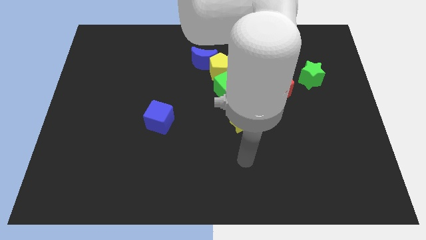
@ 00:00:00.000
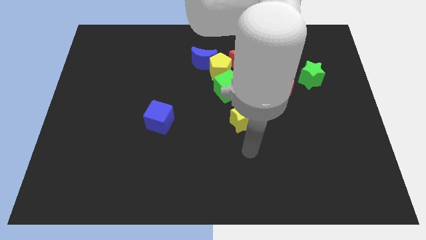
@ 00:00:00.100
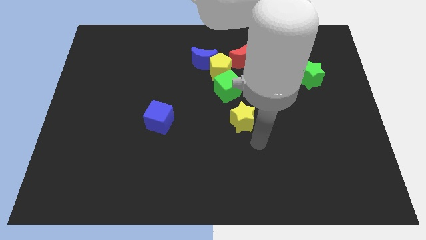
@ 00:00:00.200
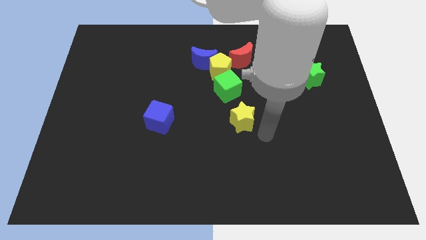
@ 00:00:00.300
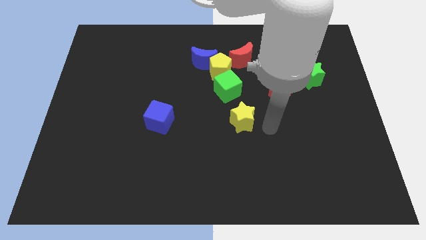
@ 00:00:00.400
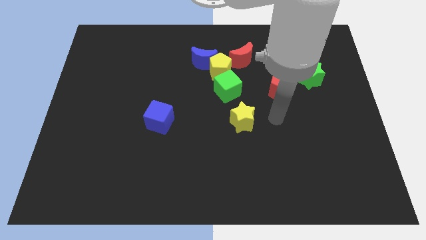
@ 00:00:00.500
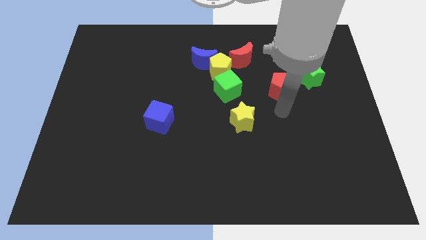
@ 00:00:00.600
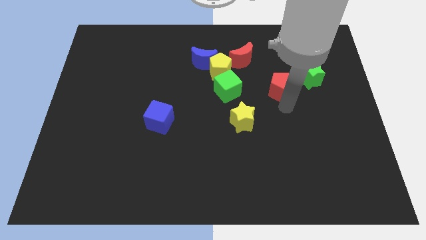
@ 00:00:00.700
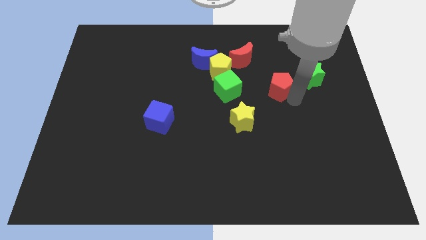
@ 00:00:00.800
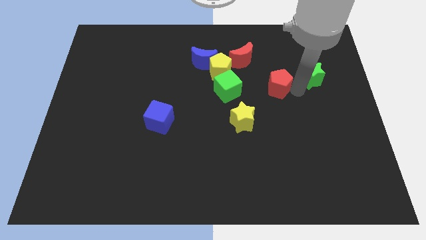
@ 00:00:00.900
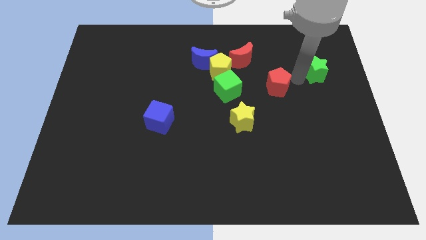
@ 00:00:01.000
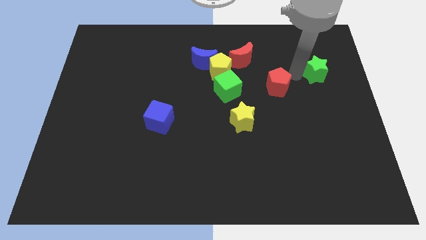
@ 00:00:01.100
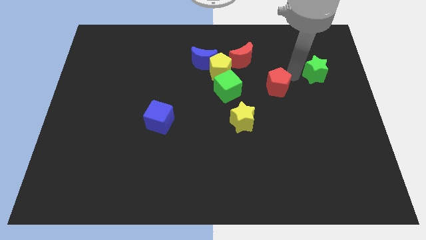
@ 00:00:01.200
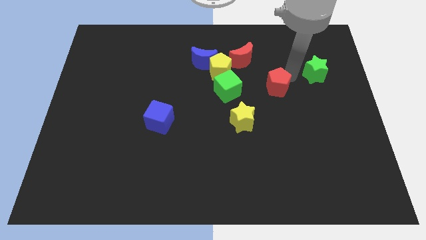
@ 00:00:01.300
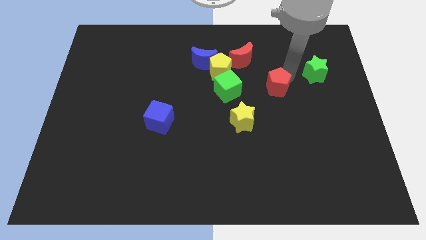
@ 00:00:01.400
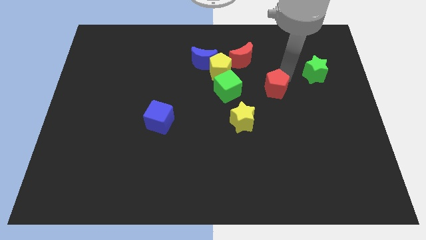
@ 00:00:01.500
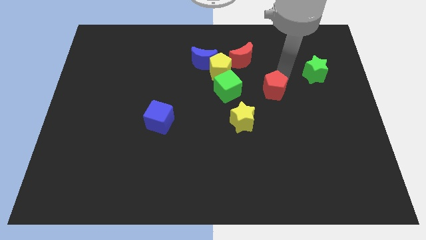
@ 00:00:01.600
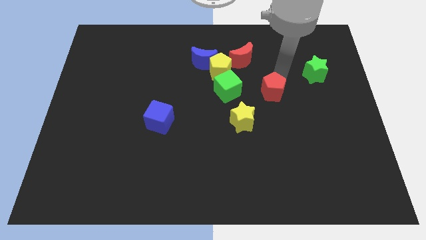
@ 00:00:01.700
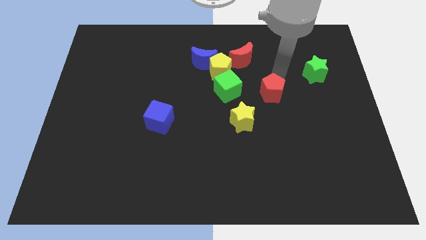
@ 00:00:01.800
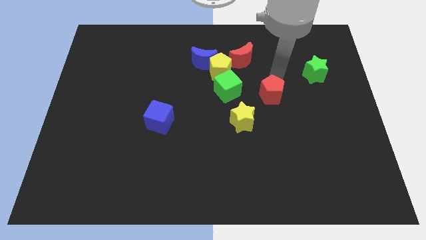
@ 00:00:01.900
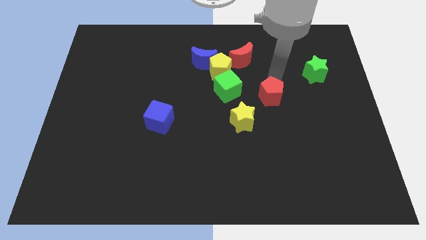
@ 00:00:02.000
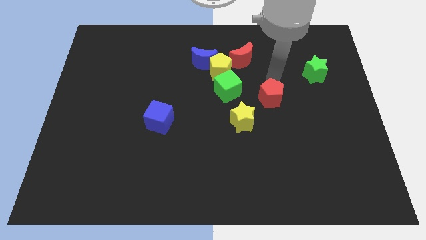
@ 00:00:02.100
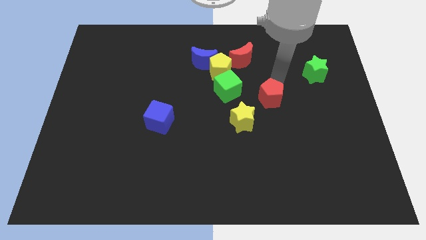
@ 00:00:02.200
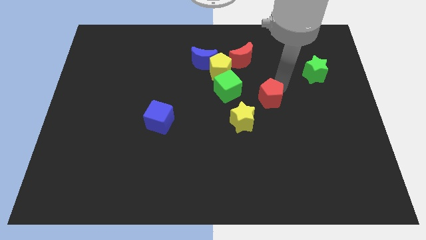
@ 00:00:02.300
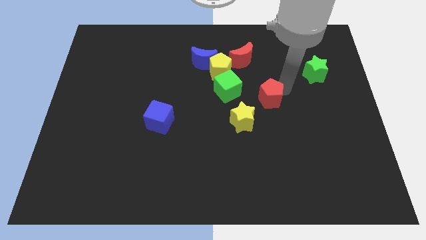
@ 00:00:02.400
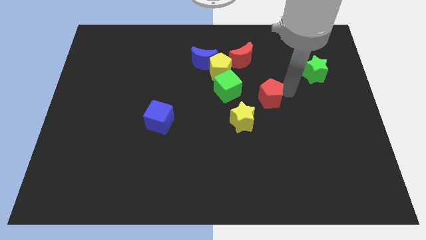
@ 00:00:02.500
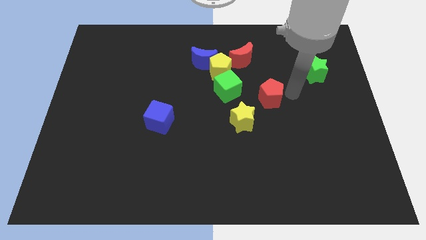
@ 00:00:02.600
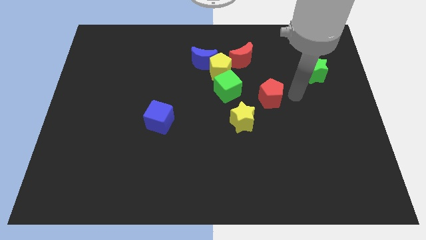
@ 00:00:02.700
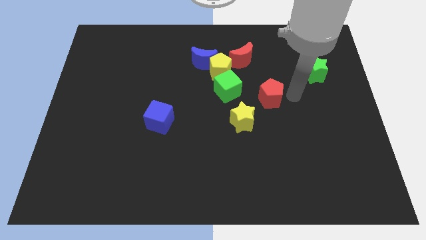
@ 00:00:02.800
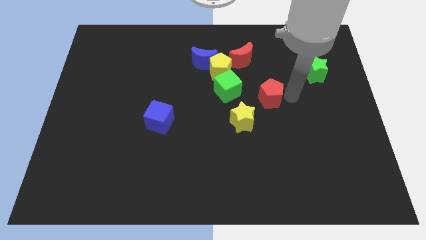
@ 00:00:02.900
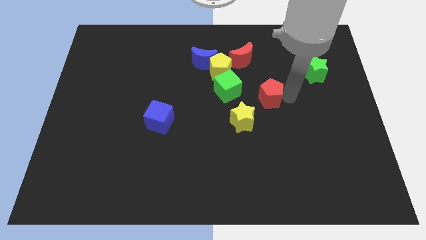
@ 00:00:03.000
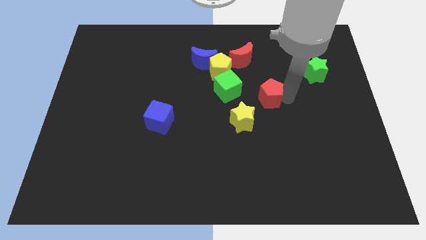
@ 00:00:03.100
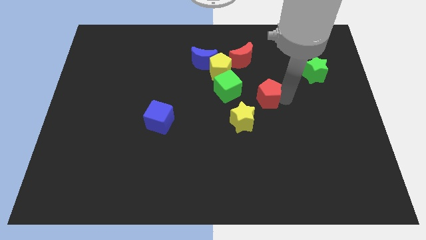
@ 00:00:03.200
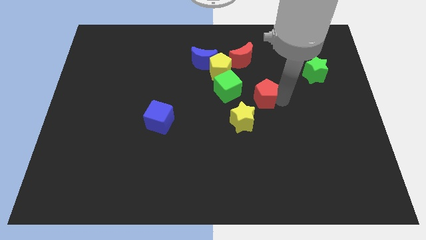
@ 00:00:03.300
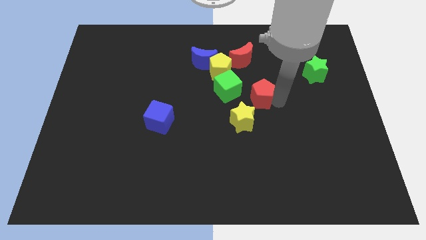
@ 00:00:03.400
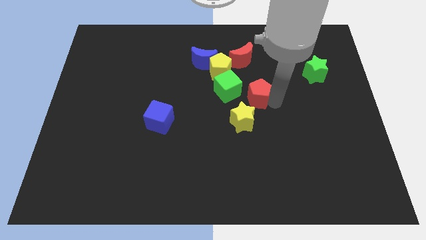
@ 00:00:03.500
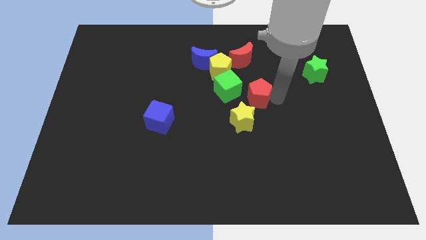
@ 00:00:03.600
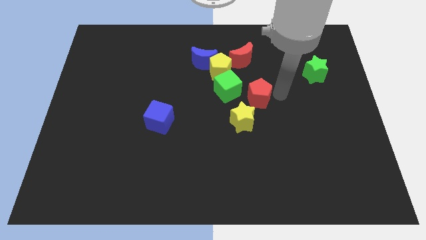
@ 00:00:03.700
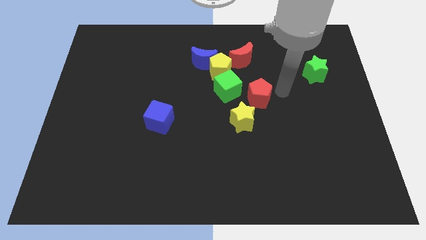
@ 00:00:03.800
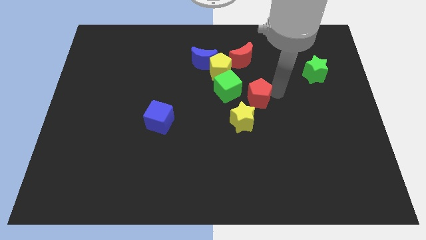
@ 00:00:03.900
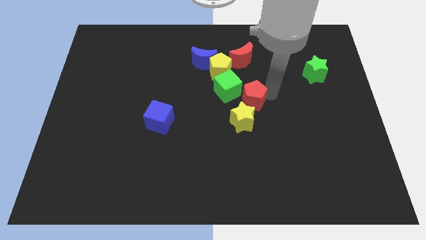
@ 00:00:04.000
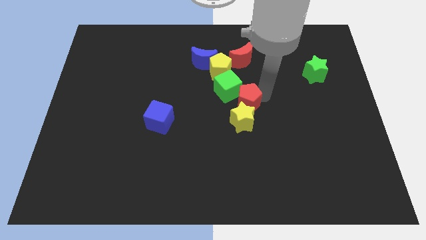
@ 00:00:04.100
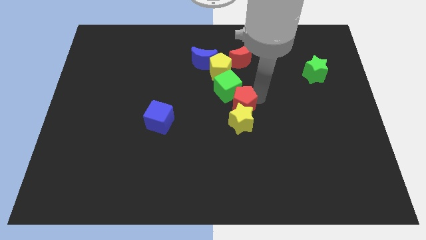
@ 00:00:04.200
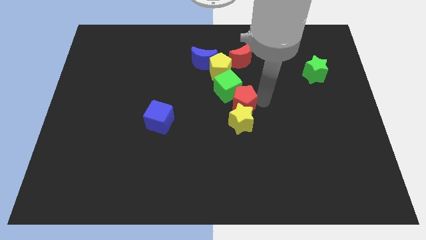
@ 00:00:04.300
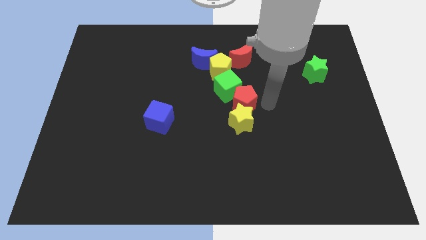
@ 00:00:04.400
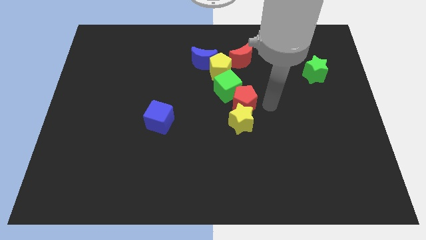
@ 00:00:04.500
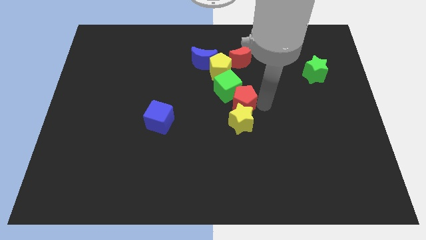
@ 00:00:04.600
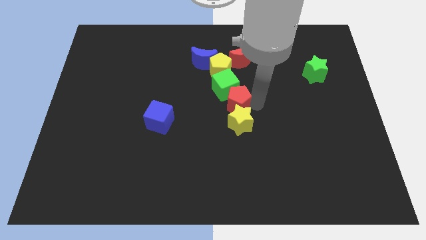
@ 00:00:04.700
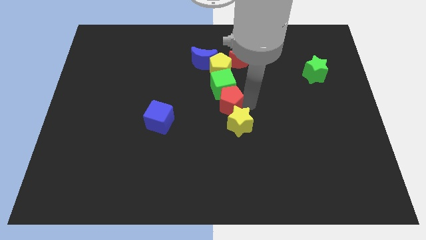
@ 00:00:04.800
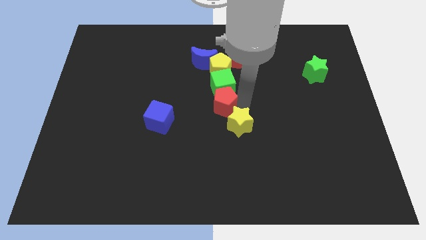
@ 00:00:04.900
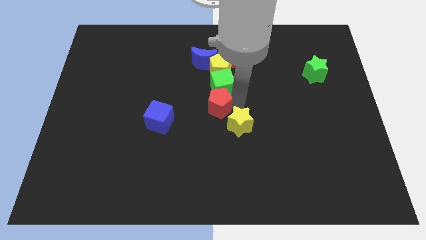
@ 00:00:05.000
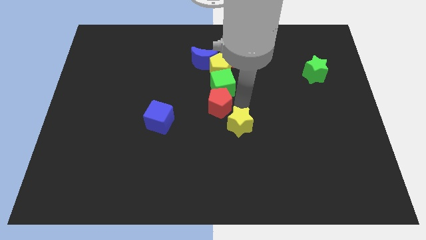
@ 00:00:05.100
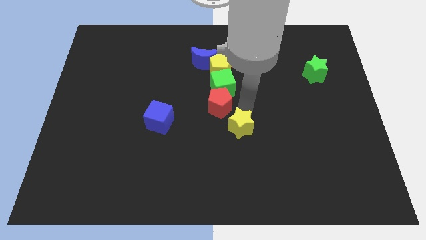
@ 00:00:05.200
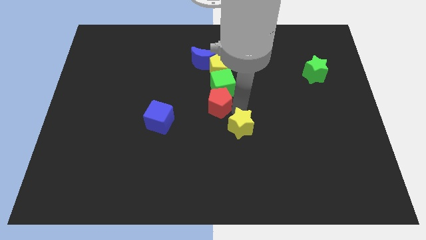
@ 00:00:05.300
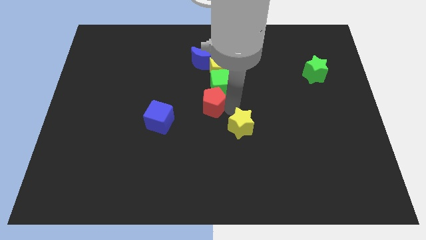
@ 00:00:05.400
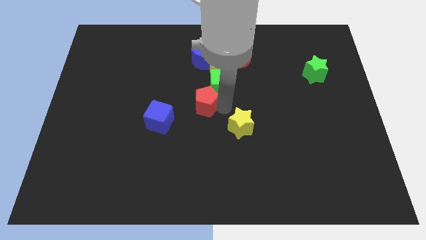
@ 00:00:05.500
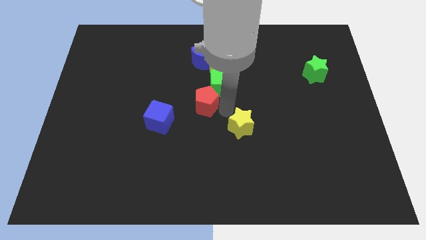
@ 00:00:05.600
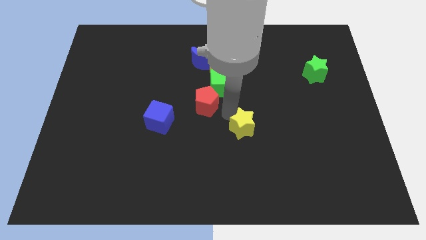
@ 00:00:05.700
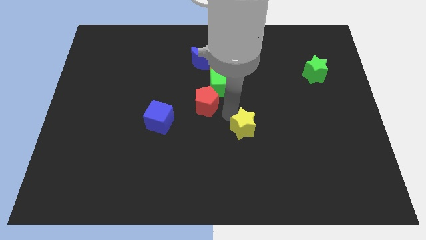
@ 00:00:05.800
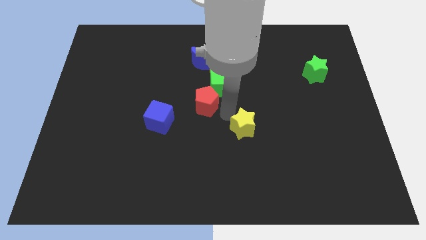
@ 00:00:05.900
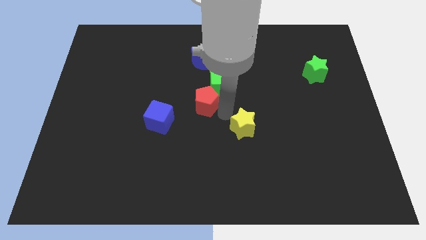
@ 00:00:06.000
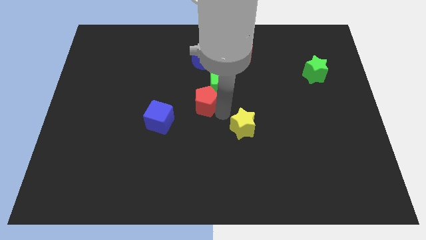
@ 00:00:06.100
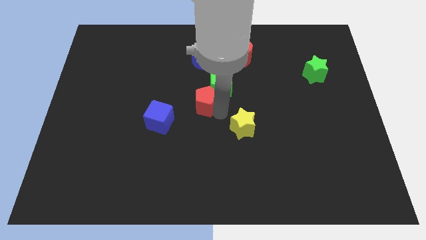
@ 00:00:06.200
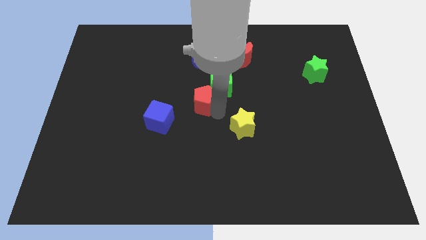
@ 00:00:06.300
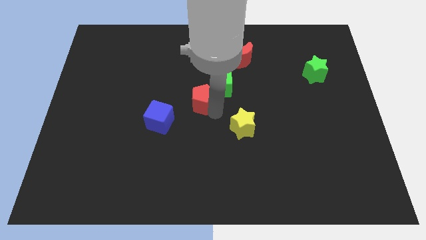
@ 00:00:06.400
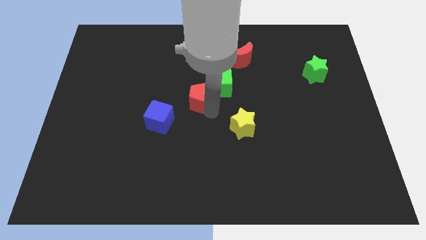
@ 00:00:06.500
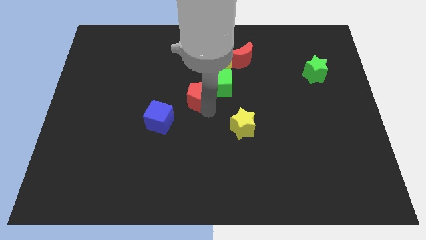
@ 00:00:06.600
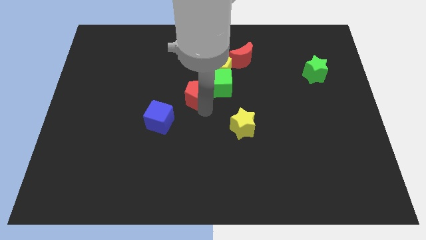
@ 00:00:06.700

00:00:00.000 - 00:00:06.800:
push the red pentagon to the left

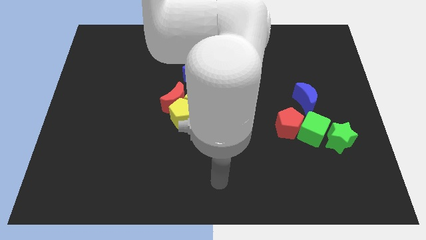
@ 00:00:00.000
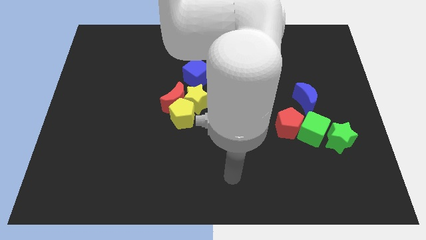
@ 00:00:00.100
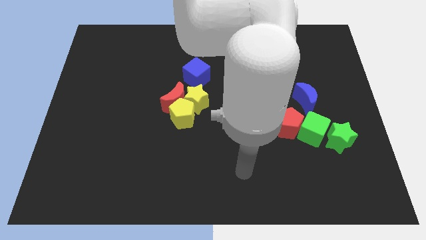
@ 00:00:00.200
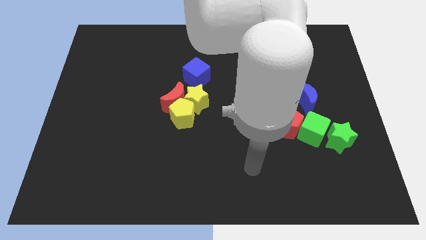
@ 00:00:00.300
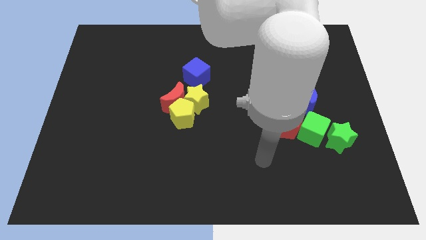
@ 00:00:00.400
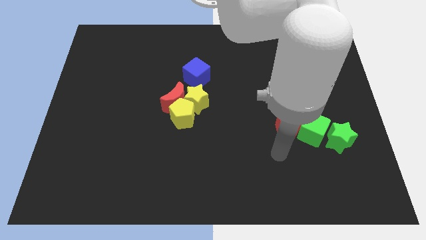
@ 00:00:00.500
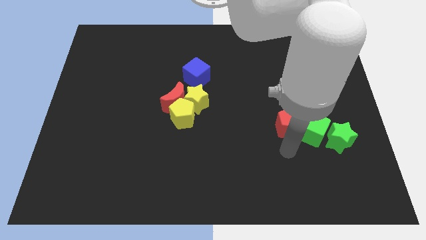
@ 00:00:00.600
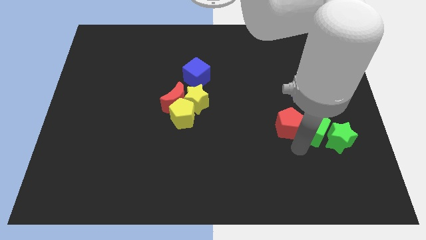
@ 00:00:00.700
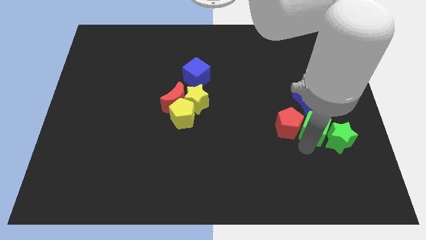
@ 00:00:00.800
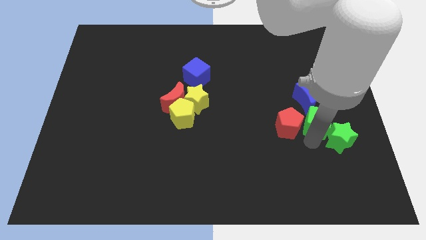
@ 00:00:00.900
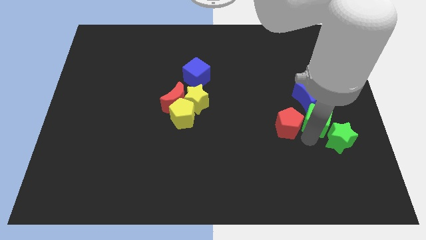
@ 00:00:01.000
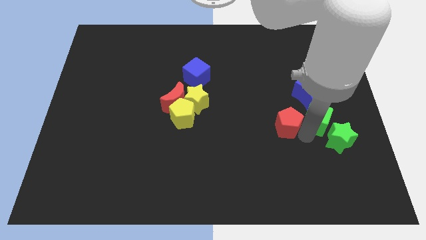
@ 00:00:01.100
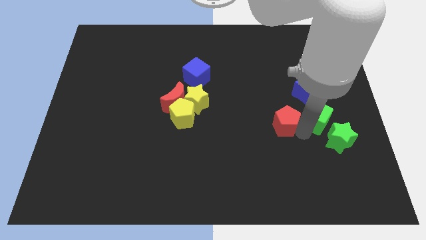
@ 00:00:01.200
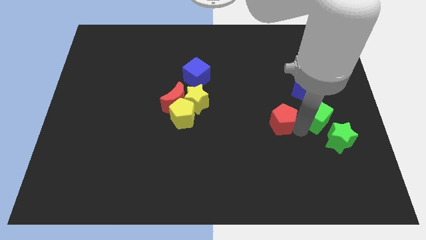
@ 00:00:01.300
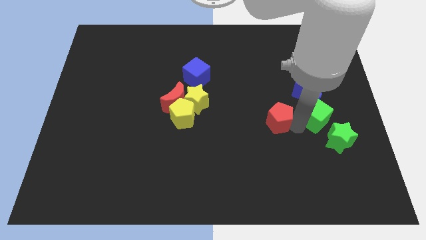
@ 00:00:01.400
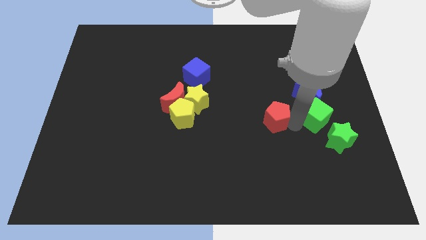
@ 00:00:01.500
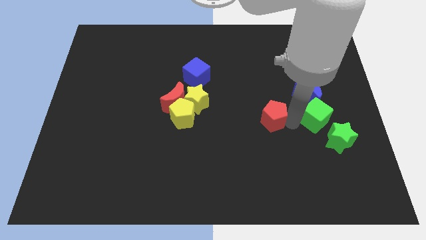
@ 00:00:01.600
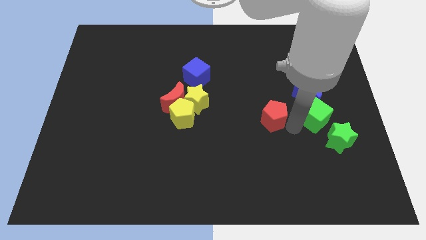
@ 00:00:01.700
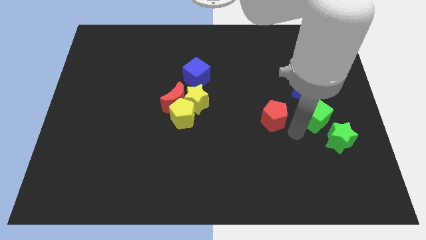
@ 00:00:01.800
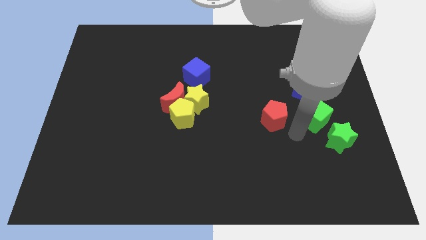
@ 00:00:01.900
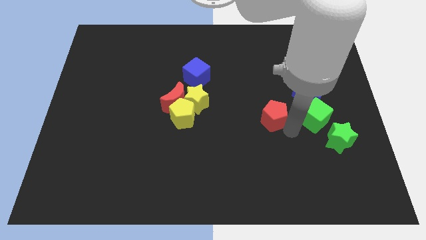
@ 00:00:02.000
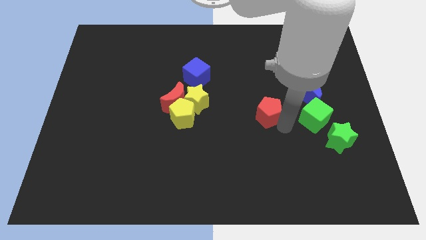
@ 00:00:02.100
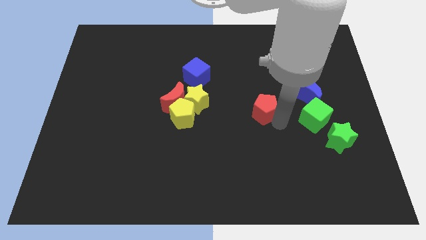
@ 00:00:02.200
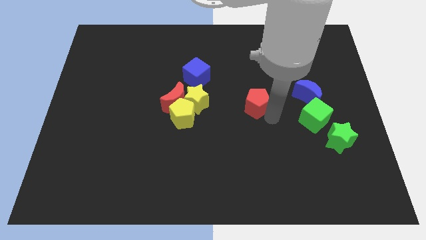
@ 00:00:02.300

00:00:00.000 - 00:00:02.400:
slide the red pentagon up and then to the left somewhat
